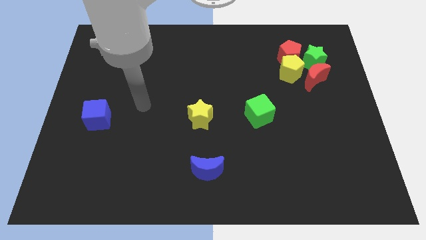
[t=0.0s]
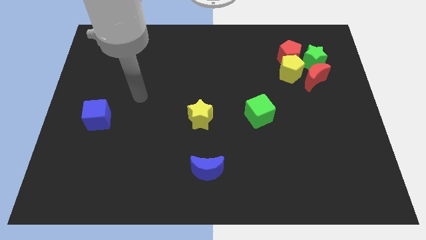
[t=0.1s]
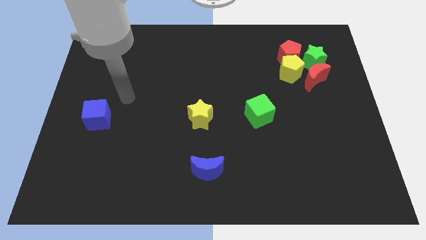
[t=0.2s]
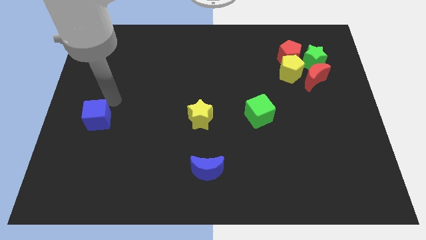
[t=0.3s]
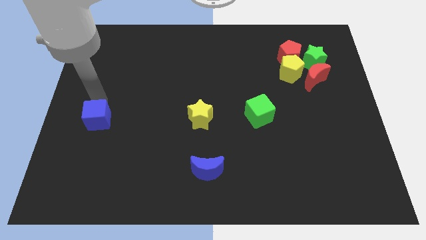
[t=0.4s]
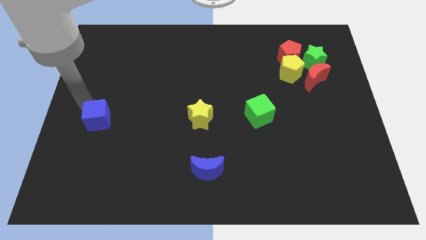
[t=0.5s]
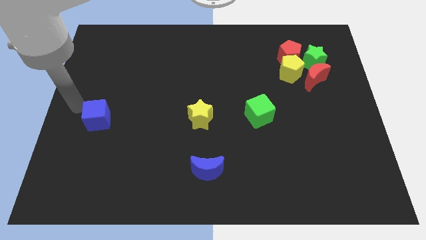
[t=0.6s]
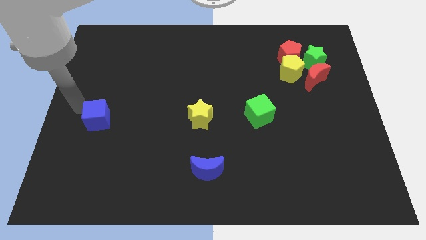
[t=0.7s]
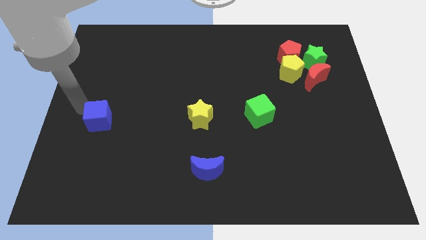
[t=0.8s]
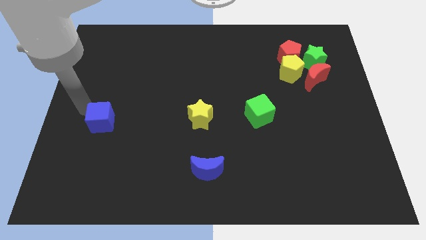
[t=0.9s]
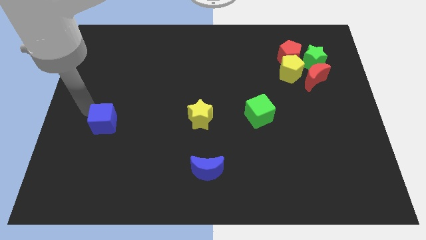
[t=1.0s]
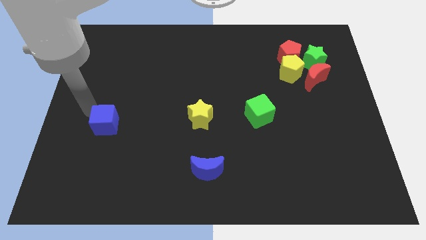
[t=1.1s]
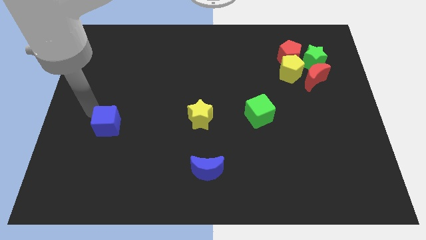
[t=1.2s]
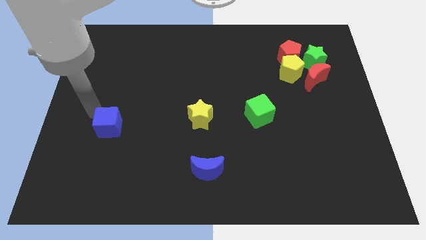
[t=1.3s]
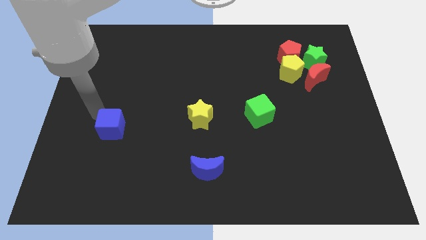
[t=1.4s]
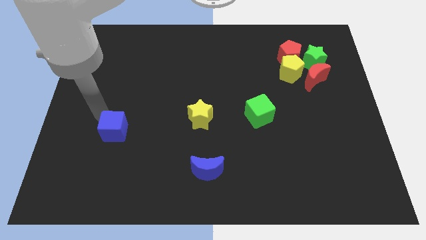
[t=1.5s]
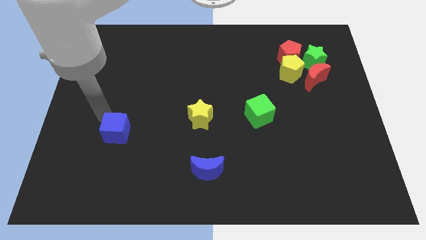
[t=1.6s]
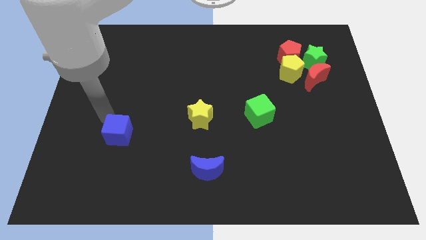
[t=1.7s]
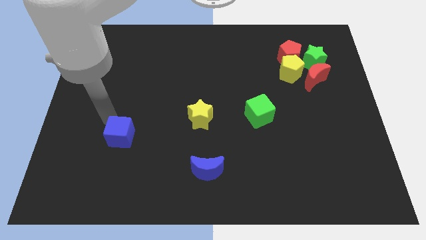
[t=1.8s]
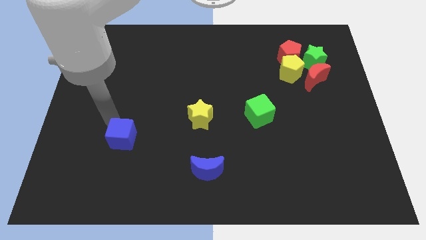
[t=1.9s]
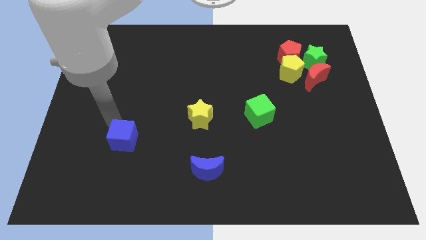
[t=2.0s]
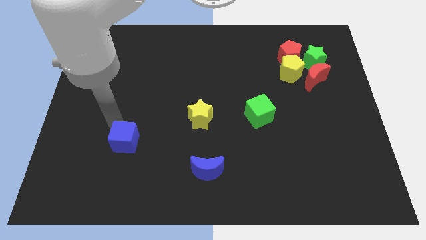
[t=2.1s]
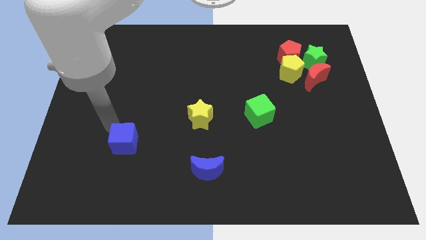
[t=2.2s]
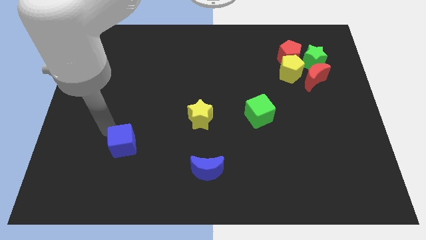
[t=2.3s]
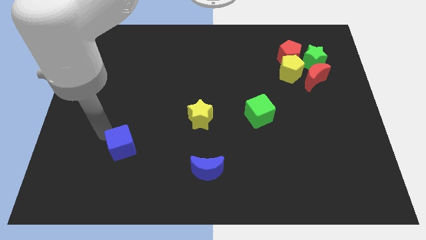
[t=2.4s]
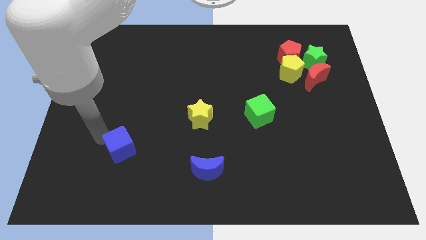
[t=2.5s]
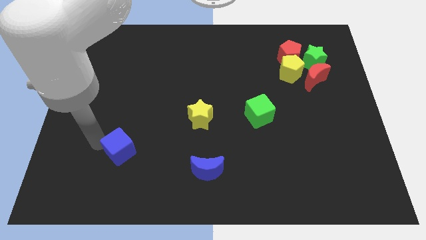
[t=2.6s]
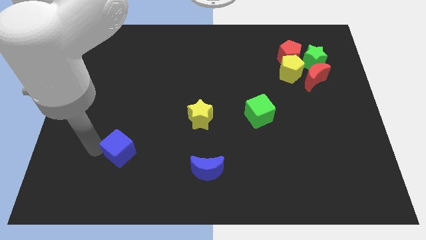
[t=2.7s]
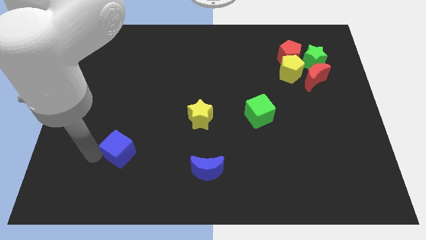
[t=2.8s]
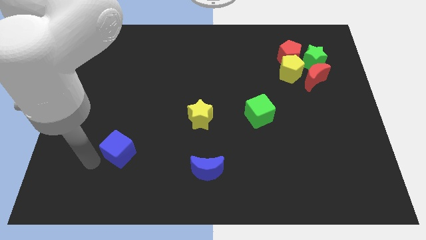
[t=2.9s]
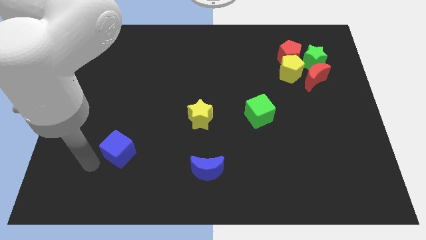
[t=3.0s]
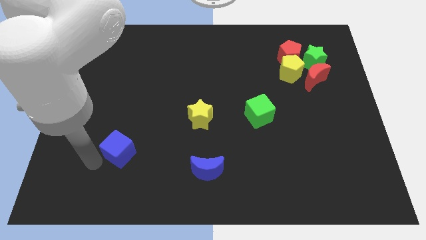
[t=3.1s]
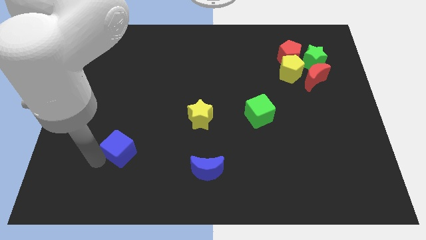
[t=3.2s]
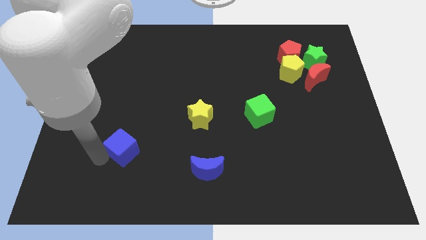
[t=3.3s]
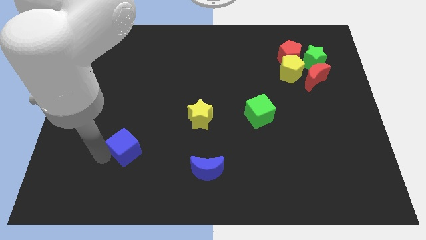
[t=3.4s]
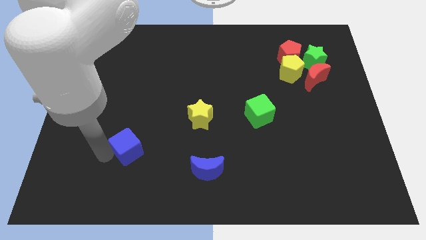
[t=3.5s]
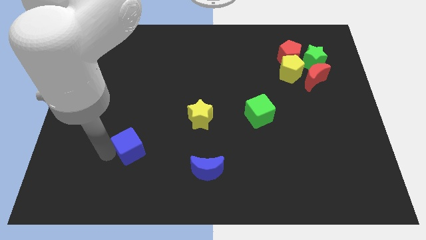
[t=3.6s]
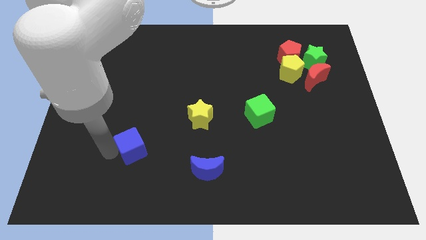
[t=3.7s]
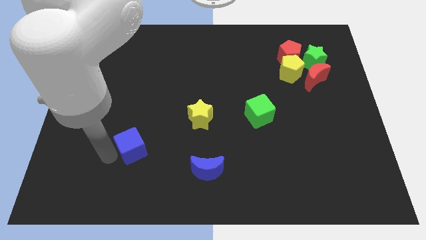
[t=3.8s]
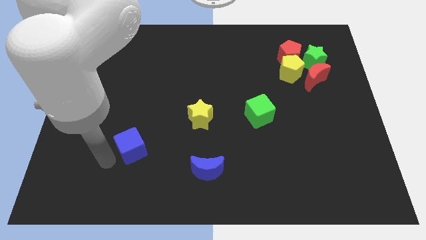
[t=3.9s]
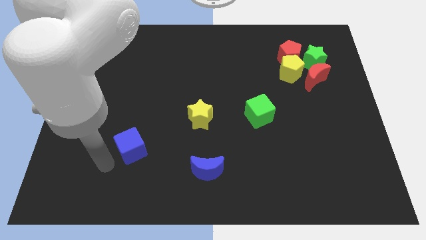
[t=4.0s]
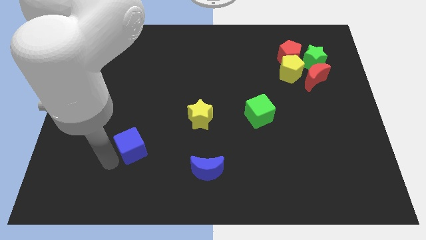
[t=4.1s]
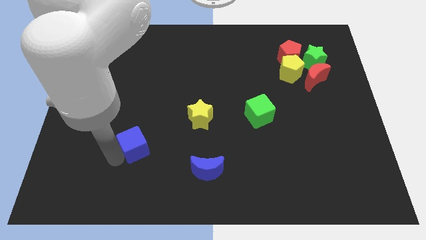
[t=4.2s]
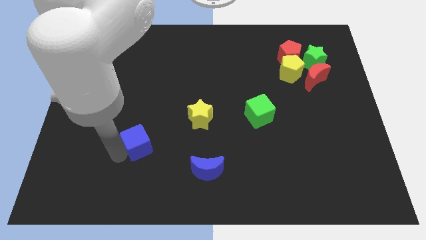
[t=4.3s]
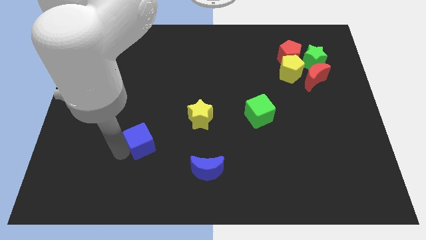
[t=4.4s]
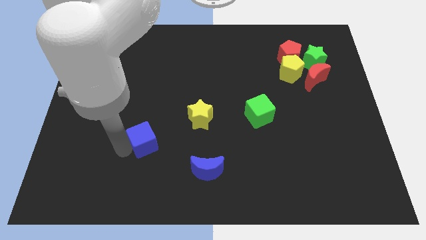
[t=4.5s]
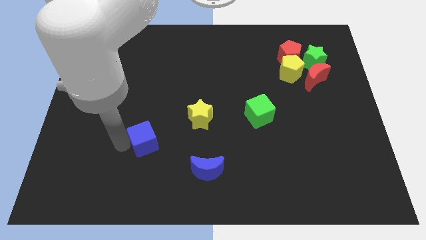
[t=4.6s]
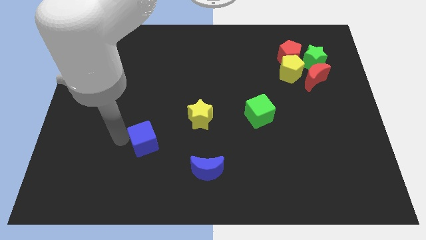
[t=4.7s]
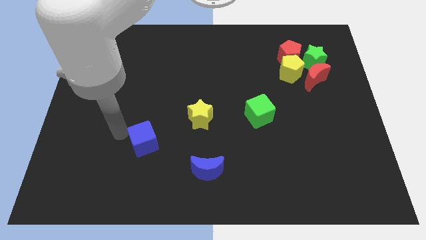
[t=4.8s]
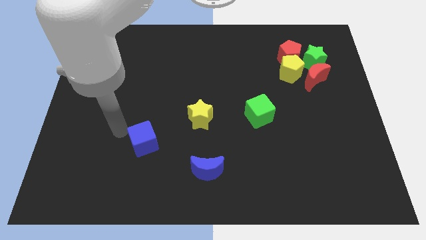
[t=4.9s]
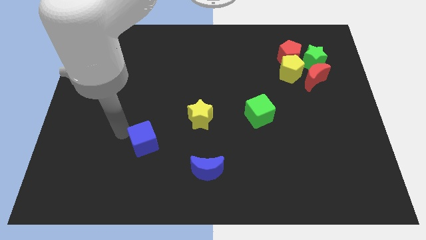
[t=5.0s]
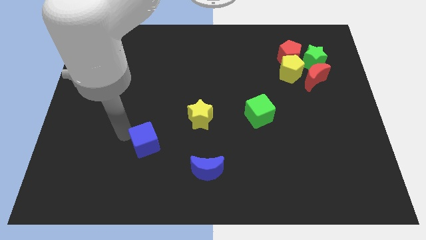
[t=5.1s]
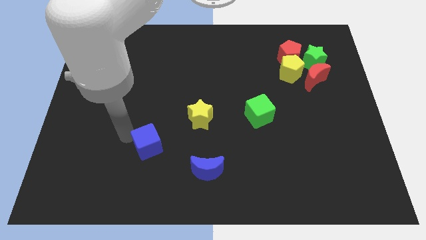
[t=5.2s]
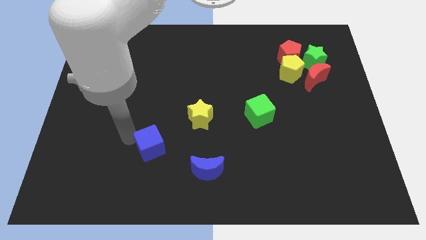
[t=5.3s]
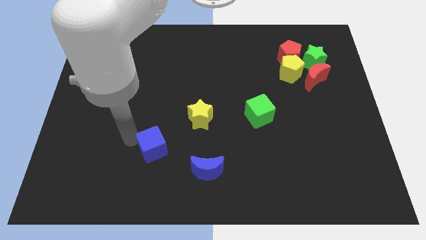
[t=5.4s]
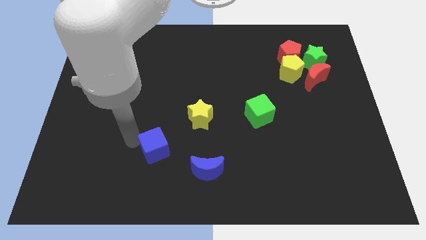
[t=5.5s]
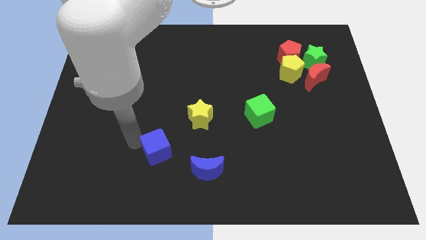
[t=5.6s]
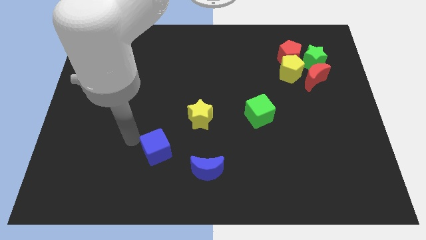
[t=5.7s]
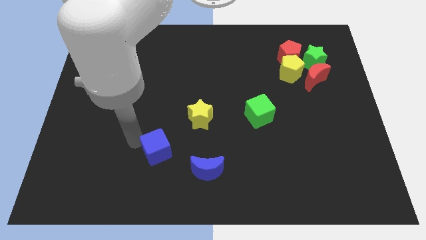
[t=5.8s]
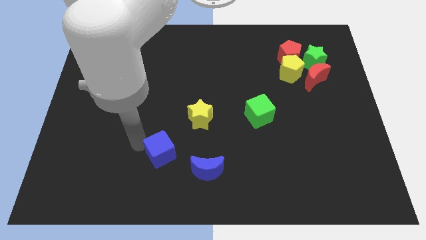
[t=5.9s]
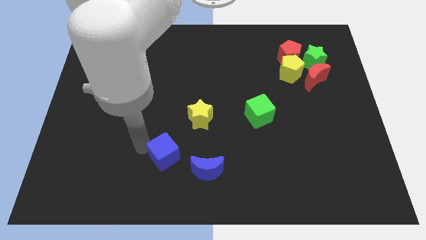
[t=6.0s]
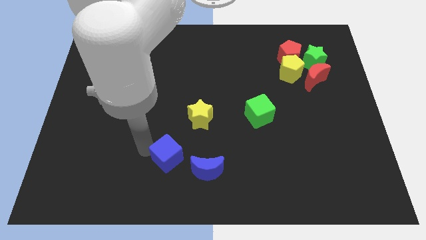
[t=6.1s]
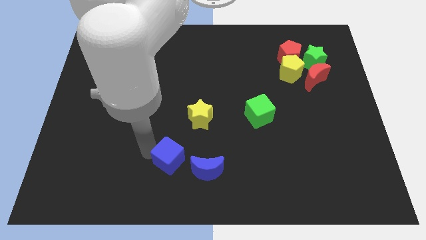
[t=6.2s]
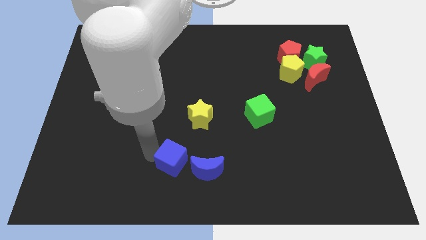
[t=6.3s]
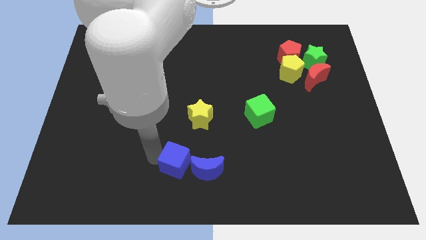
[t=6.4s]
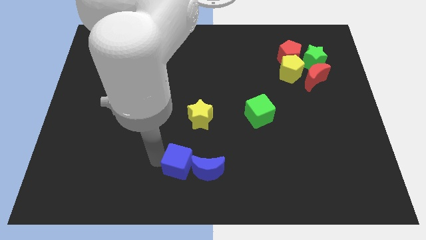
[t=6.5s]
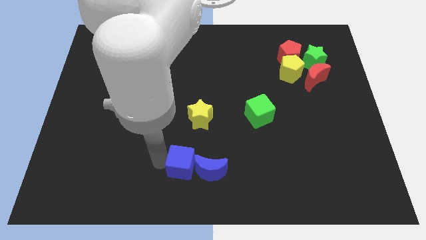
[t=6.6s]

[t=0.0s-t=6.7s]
slide the blue cube close to the blue moon
